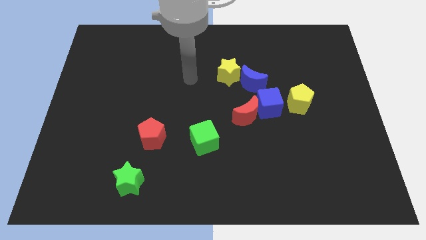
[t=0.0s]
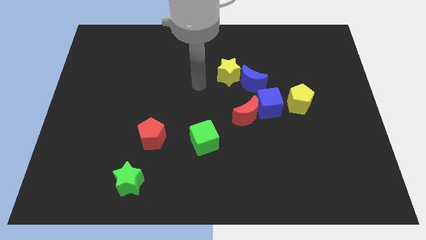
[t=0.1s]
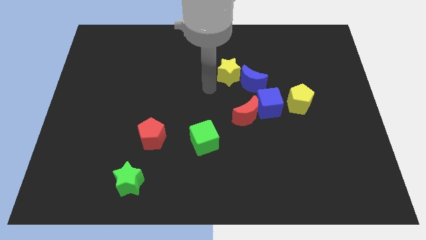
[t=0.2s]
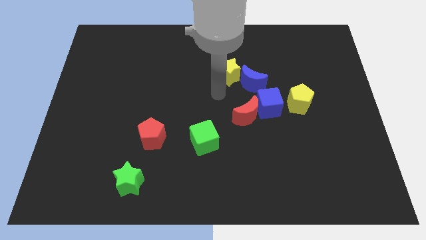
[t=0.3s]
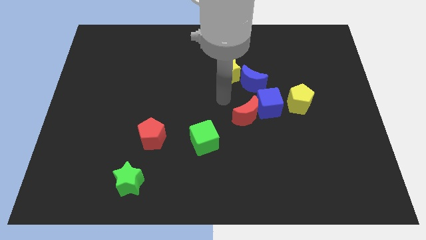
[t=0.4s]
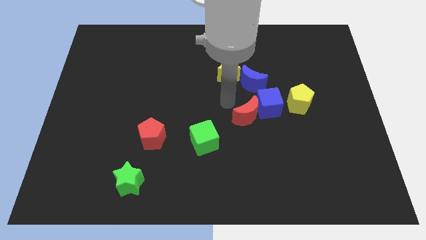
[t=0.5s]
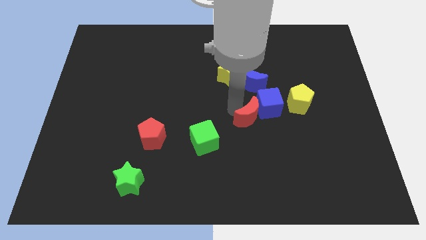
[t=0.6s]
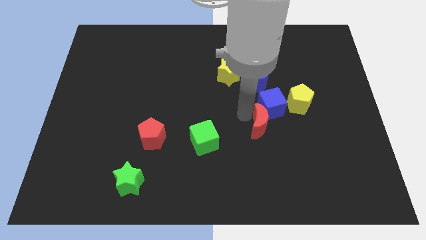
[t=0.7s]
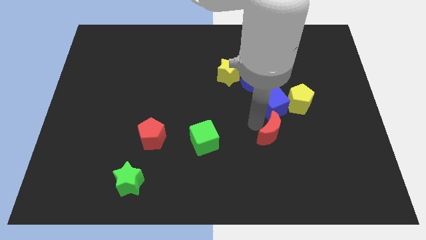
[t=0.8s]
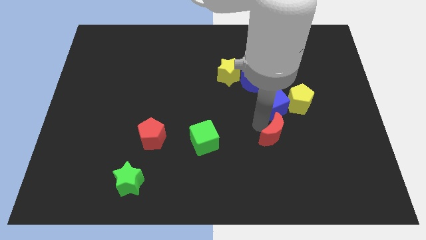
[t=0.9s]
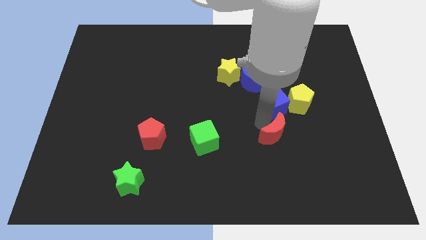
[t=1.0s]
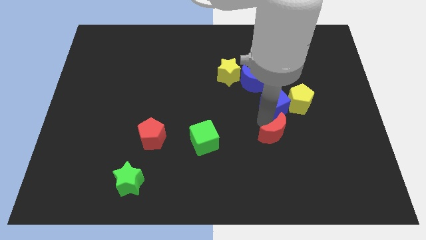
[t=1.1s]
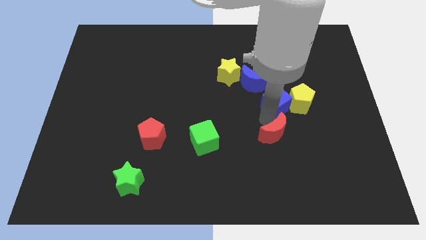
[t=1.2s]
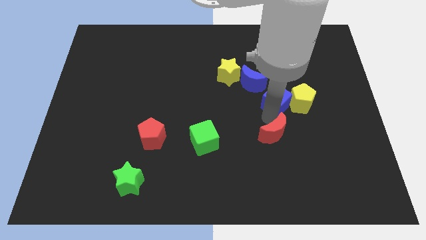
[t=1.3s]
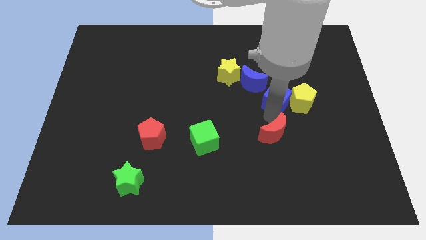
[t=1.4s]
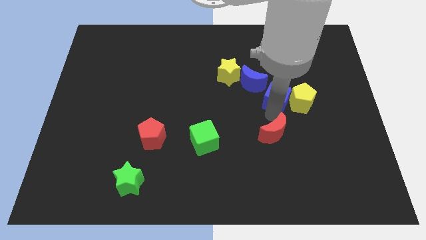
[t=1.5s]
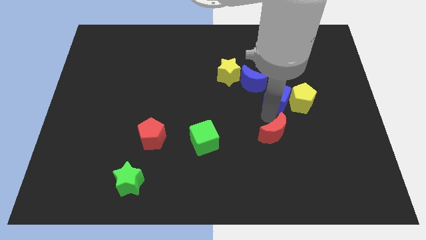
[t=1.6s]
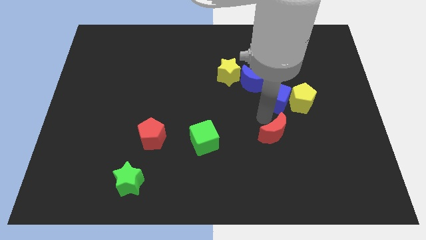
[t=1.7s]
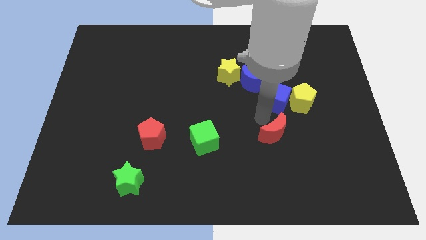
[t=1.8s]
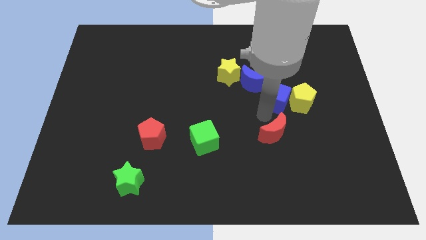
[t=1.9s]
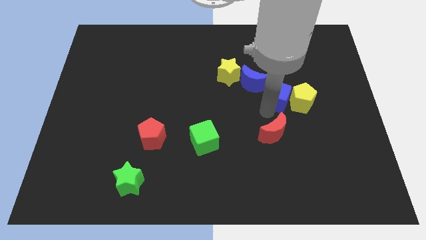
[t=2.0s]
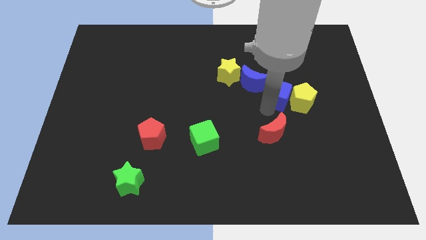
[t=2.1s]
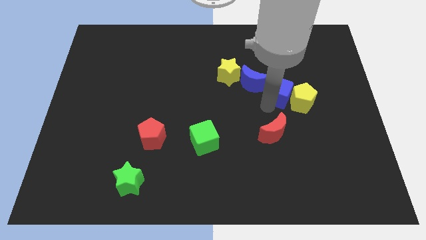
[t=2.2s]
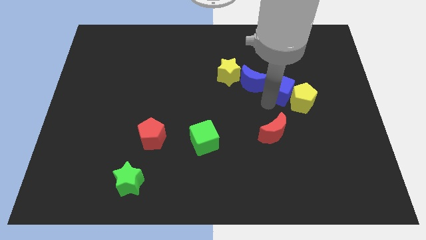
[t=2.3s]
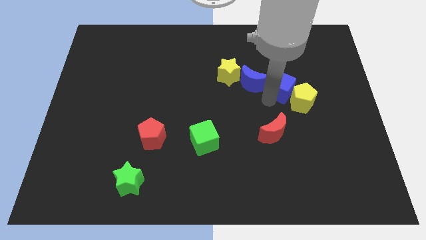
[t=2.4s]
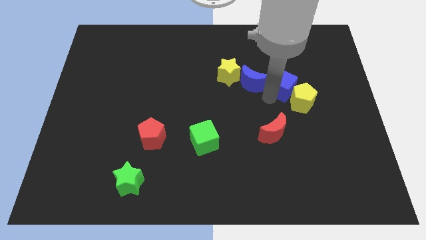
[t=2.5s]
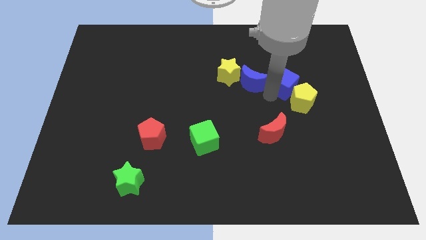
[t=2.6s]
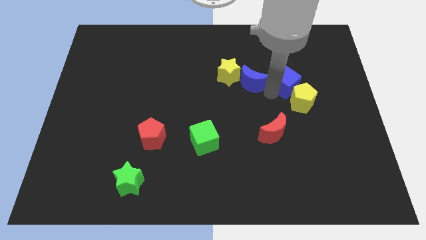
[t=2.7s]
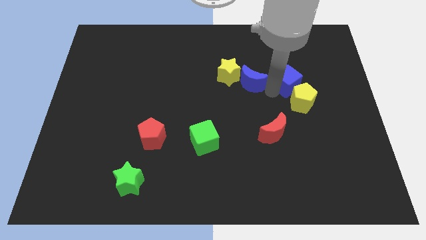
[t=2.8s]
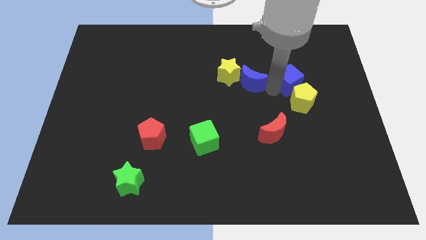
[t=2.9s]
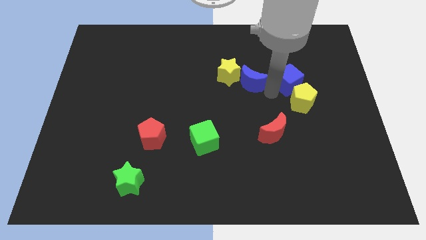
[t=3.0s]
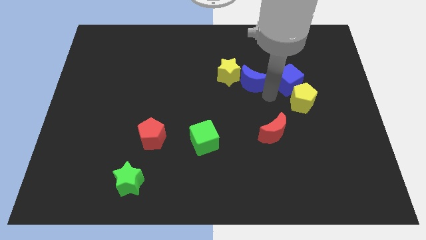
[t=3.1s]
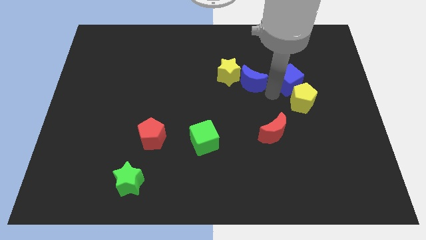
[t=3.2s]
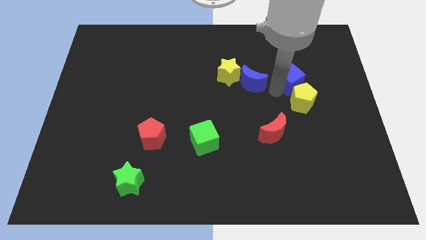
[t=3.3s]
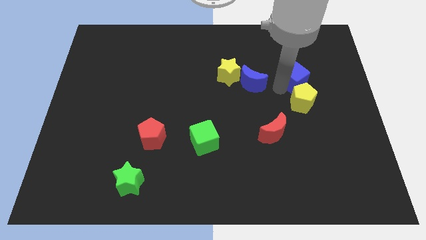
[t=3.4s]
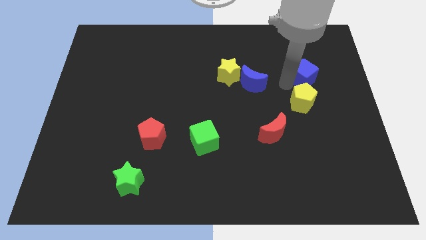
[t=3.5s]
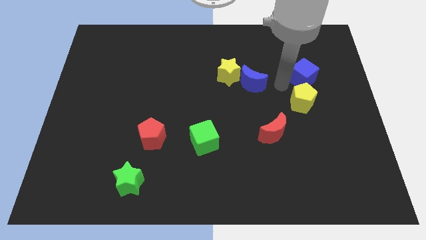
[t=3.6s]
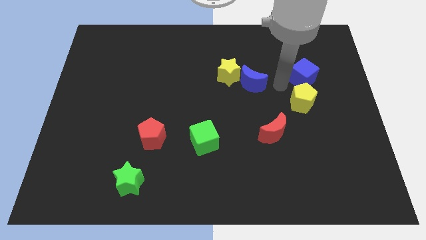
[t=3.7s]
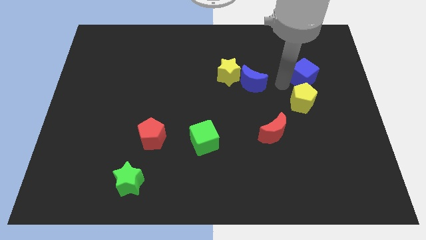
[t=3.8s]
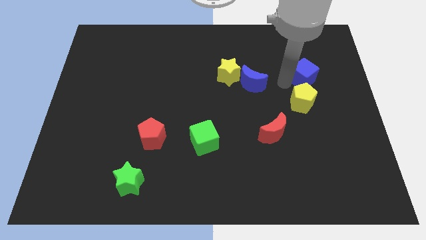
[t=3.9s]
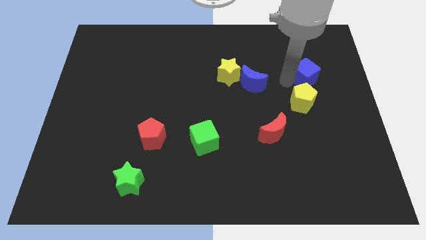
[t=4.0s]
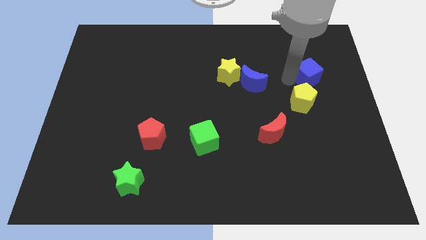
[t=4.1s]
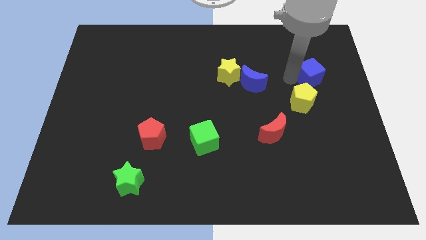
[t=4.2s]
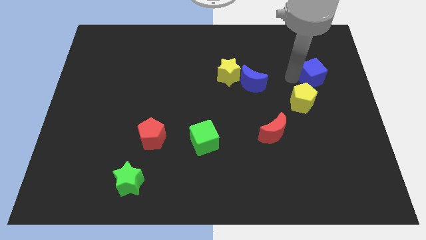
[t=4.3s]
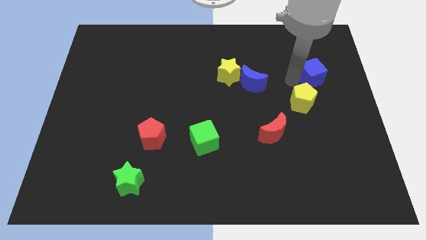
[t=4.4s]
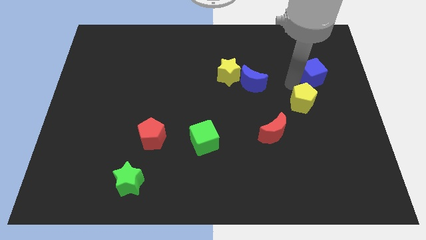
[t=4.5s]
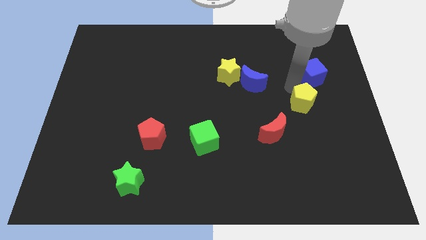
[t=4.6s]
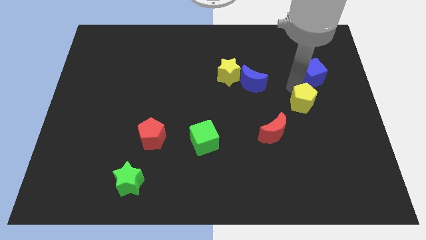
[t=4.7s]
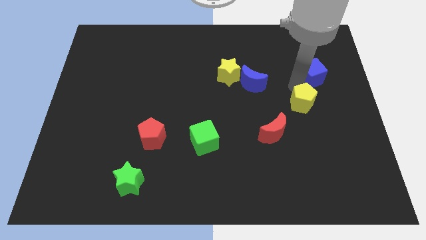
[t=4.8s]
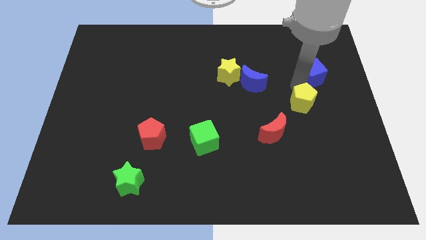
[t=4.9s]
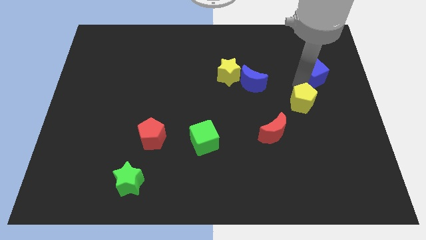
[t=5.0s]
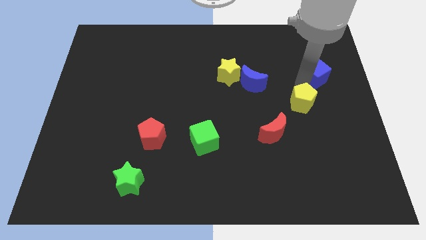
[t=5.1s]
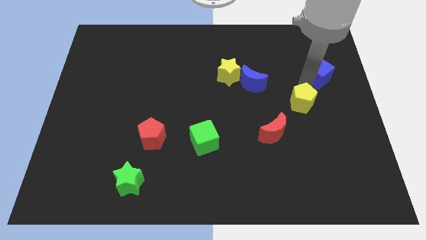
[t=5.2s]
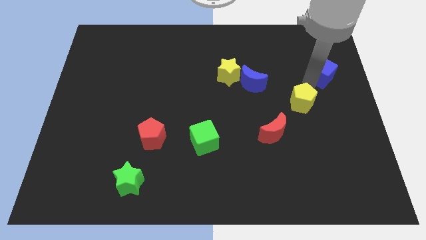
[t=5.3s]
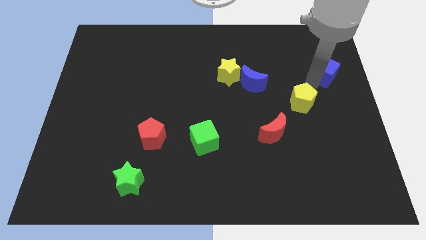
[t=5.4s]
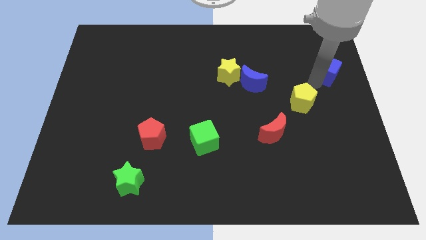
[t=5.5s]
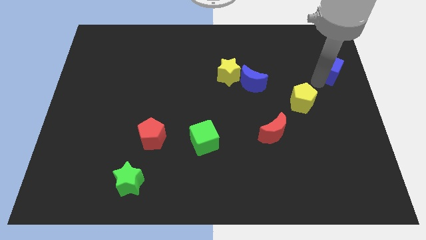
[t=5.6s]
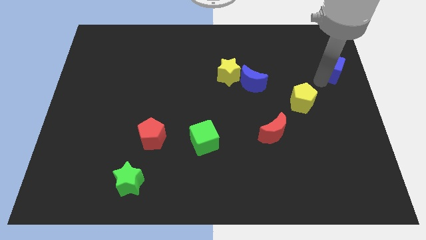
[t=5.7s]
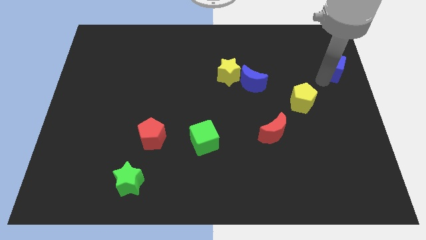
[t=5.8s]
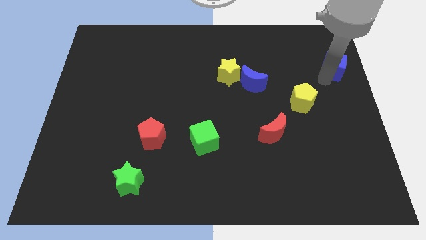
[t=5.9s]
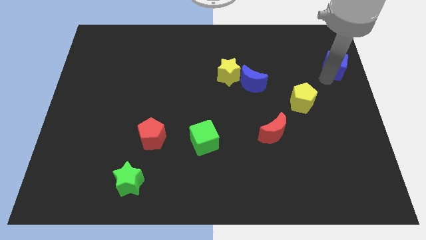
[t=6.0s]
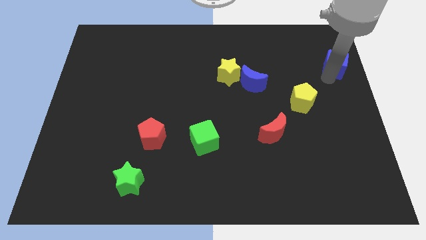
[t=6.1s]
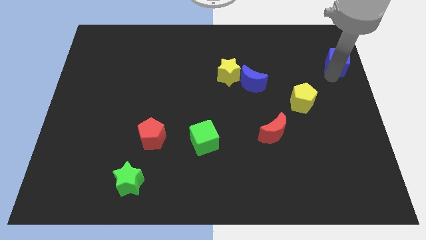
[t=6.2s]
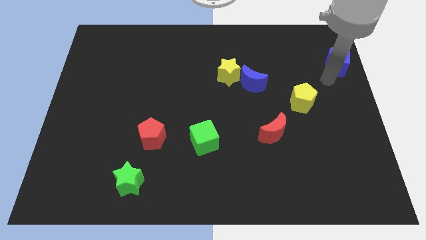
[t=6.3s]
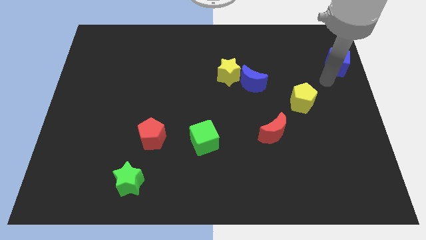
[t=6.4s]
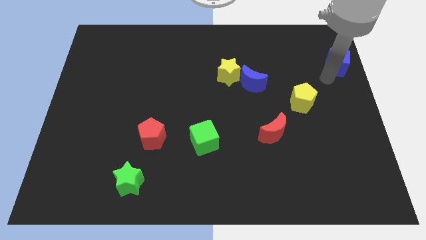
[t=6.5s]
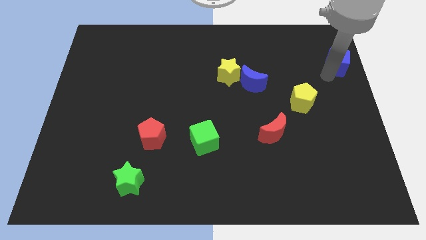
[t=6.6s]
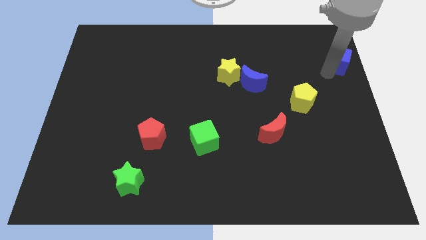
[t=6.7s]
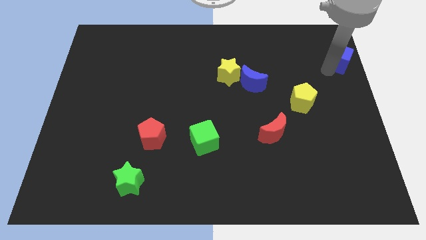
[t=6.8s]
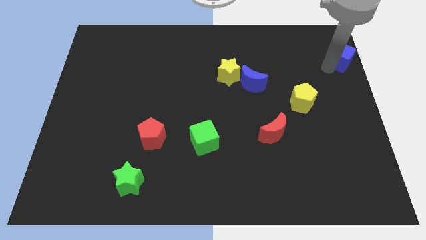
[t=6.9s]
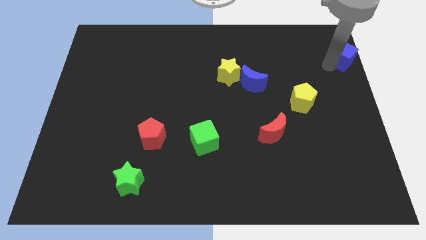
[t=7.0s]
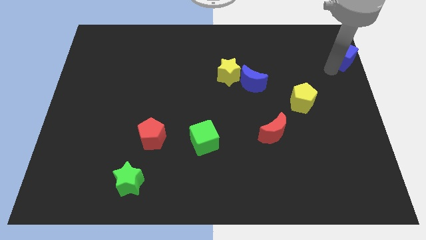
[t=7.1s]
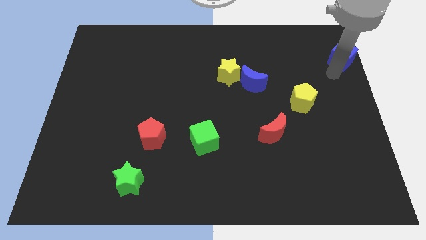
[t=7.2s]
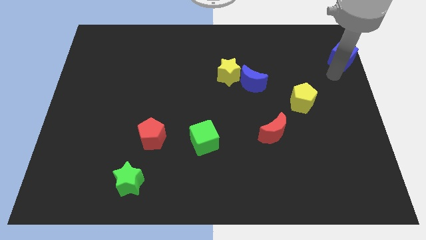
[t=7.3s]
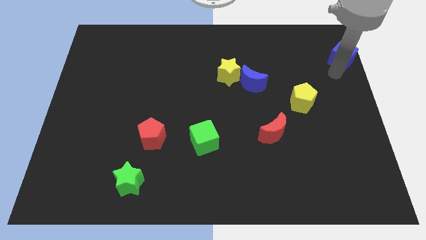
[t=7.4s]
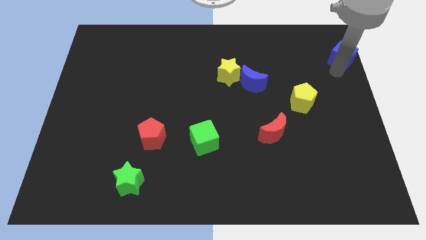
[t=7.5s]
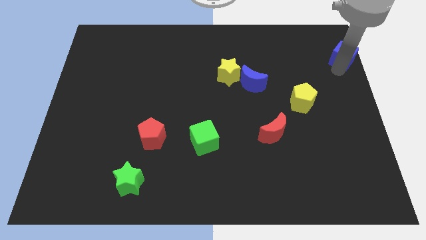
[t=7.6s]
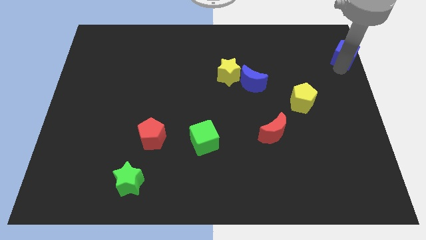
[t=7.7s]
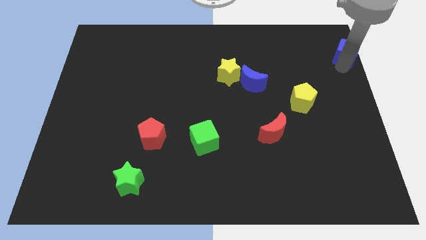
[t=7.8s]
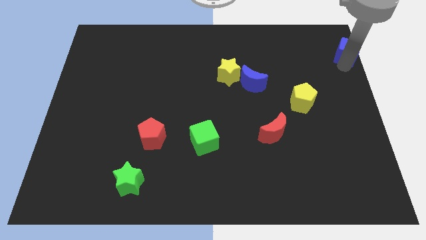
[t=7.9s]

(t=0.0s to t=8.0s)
put the blue cube to the upper right corner
